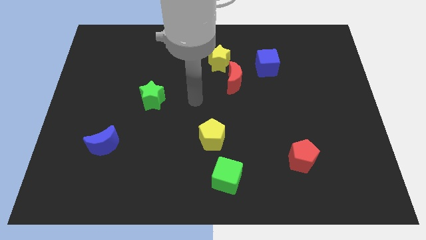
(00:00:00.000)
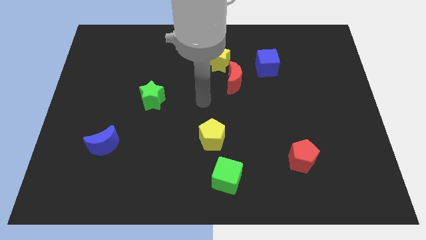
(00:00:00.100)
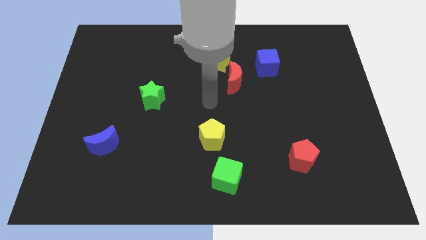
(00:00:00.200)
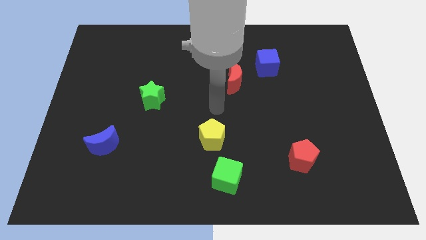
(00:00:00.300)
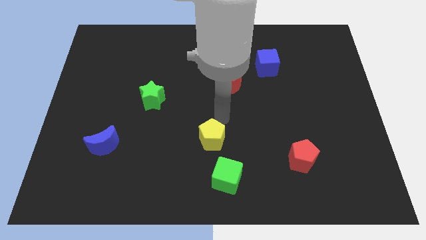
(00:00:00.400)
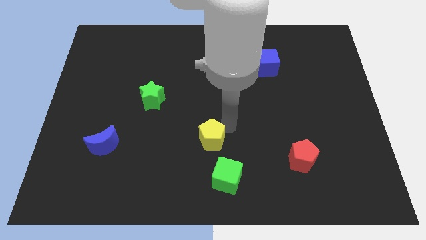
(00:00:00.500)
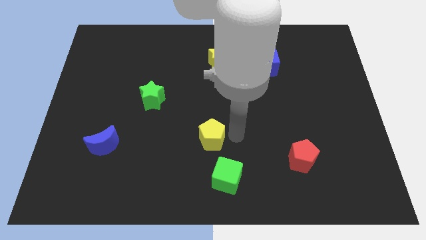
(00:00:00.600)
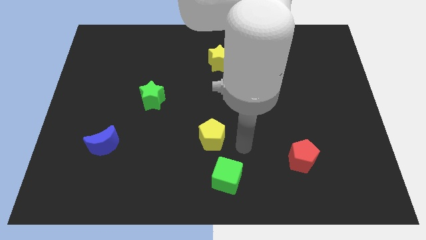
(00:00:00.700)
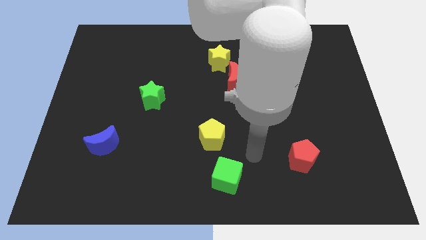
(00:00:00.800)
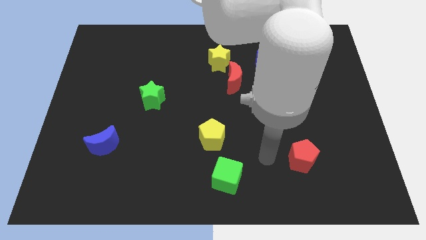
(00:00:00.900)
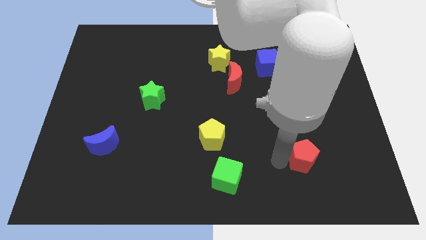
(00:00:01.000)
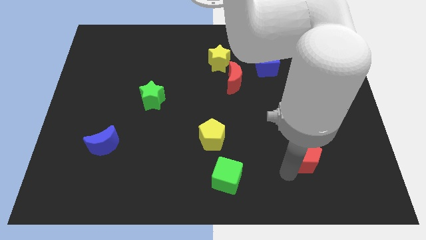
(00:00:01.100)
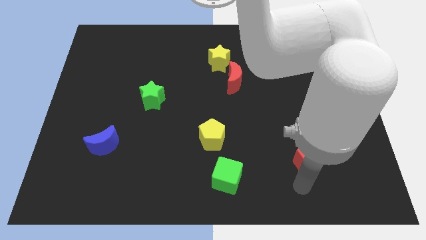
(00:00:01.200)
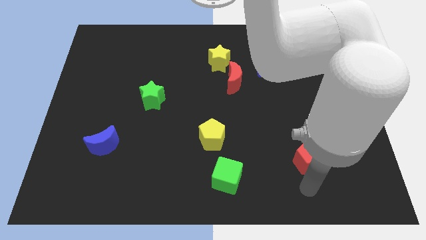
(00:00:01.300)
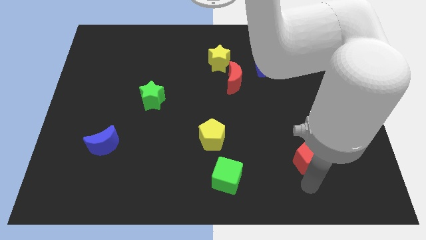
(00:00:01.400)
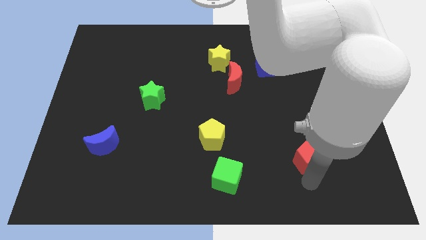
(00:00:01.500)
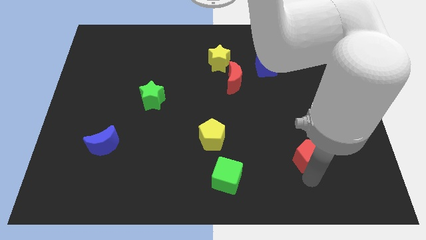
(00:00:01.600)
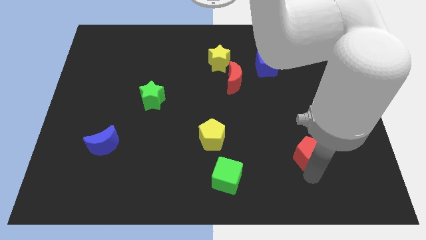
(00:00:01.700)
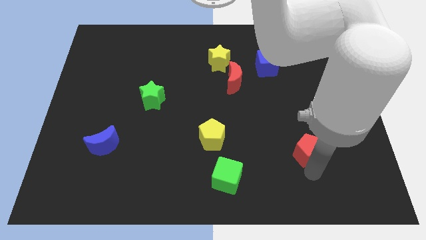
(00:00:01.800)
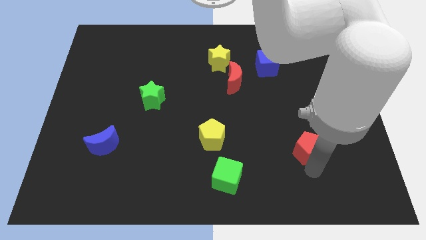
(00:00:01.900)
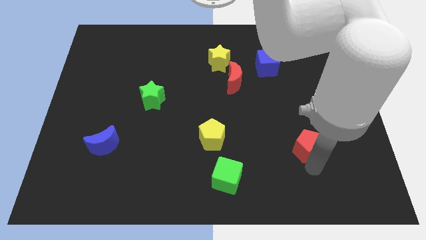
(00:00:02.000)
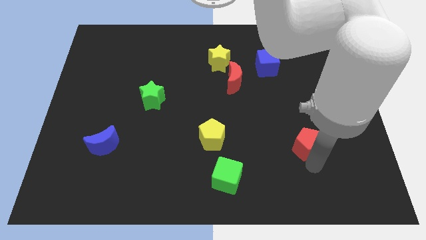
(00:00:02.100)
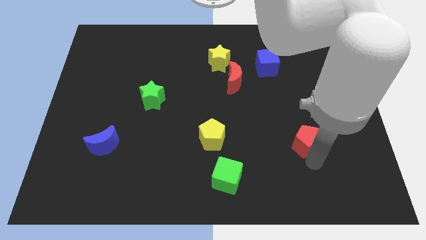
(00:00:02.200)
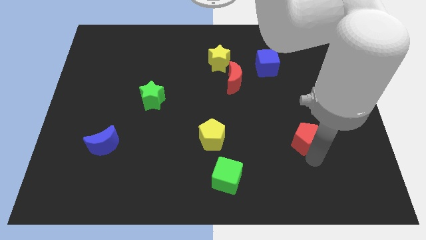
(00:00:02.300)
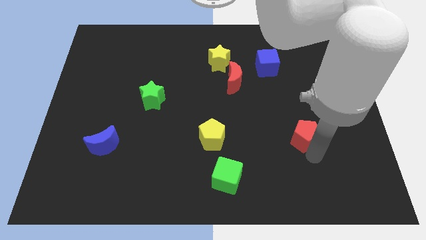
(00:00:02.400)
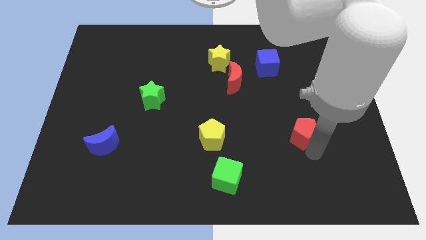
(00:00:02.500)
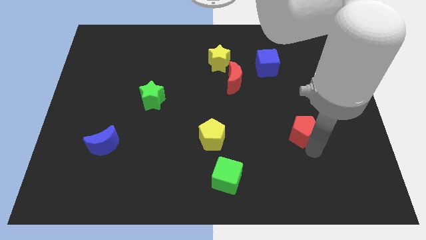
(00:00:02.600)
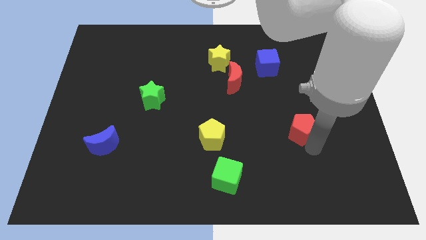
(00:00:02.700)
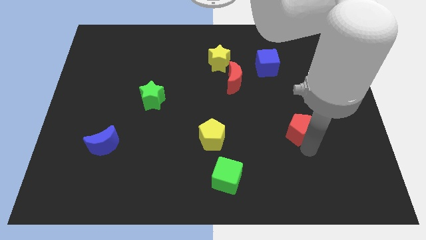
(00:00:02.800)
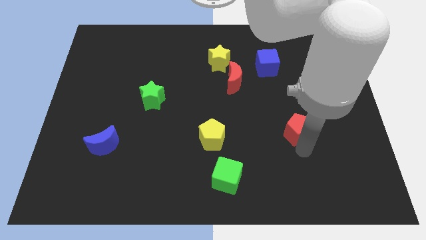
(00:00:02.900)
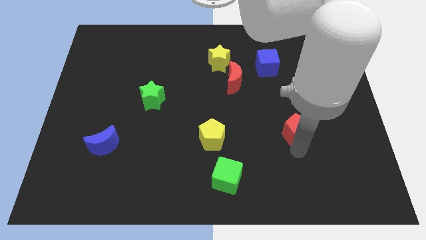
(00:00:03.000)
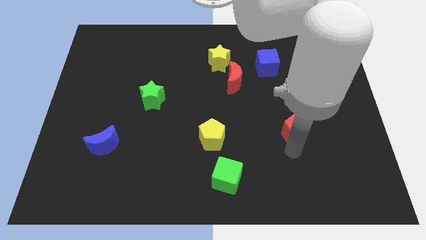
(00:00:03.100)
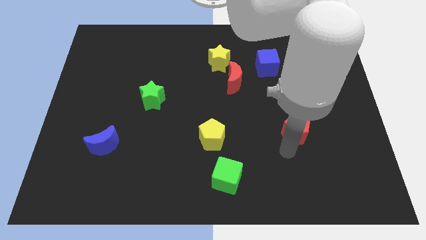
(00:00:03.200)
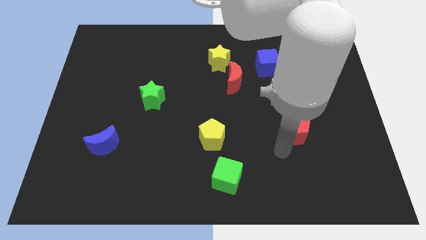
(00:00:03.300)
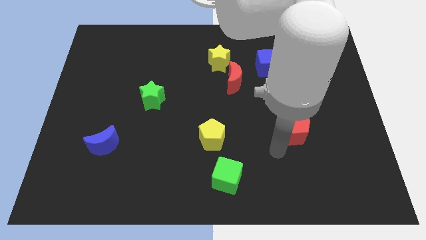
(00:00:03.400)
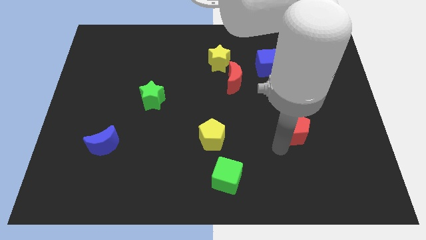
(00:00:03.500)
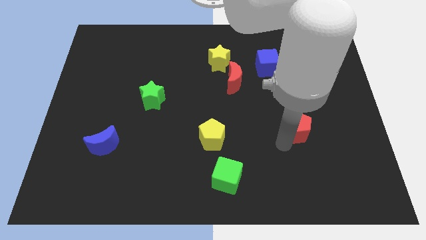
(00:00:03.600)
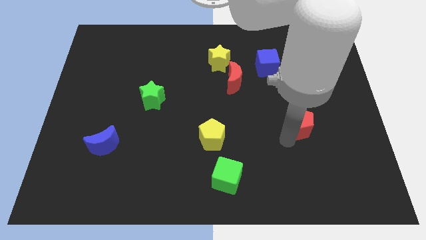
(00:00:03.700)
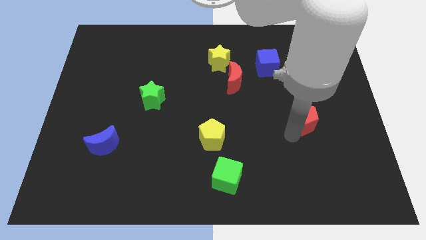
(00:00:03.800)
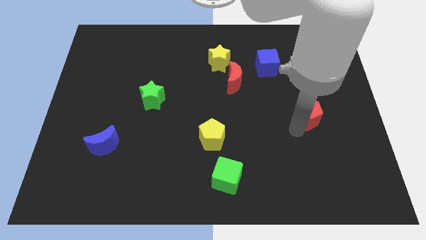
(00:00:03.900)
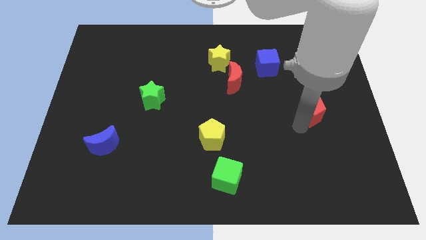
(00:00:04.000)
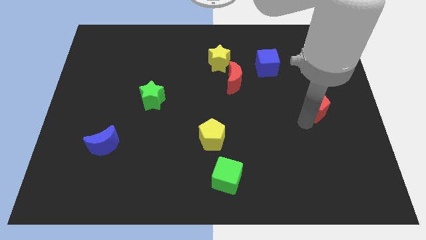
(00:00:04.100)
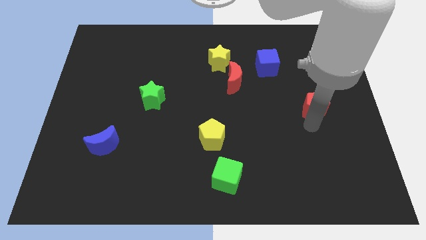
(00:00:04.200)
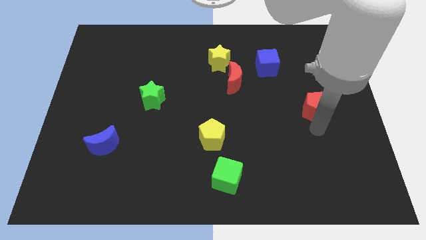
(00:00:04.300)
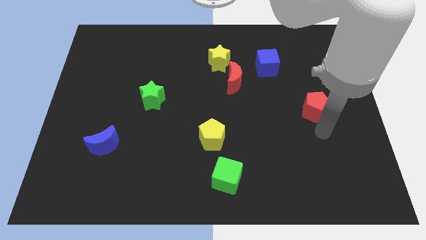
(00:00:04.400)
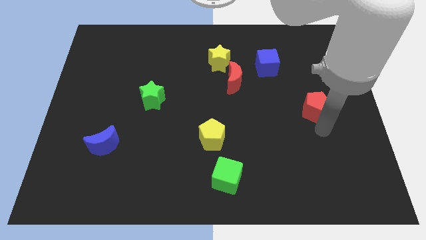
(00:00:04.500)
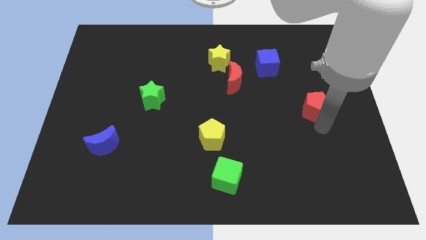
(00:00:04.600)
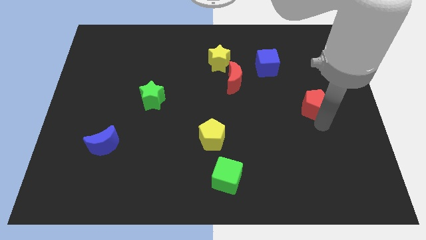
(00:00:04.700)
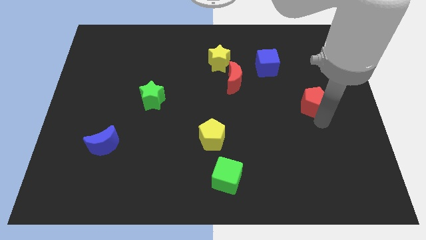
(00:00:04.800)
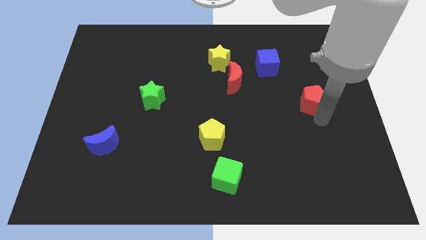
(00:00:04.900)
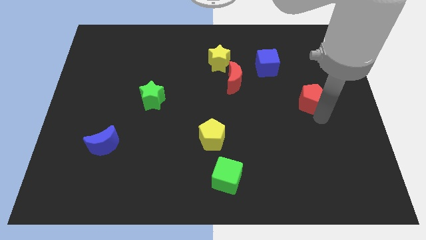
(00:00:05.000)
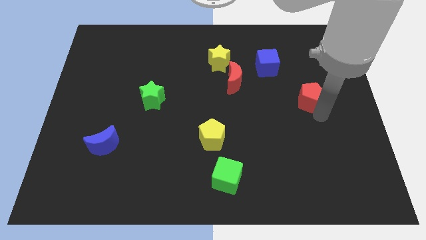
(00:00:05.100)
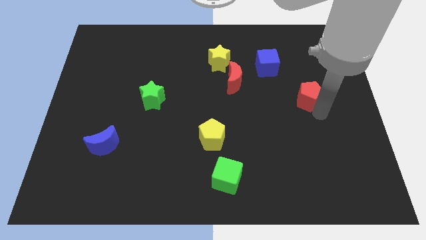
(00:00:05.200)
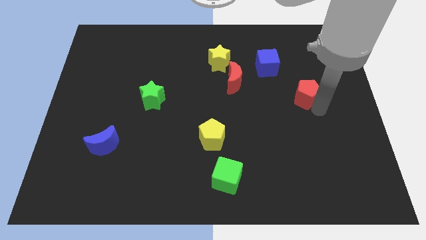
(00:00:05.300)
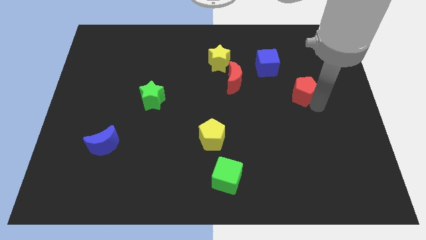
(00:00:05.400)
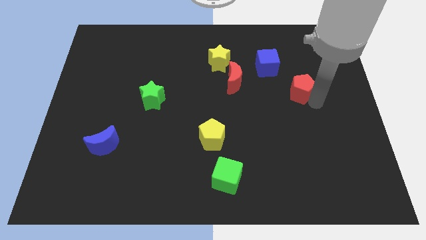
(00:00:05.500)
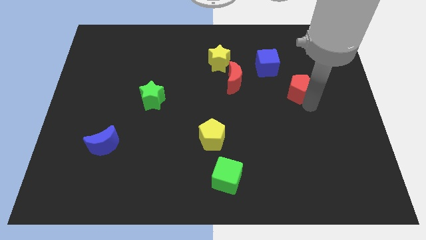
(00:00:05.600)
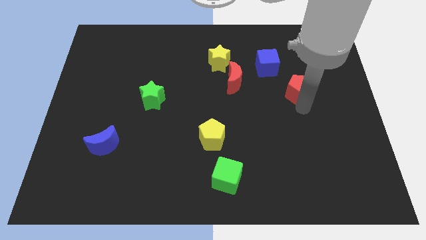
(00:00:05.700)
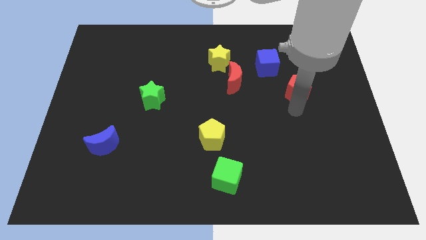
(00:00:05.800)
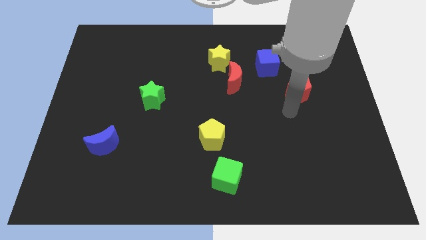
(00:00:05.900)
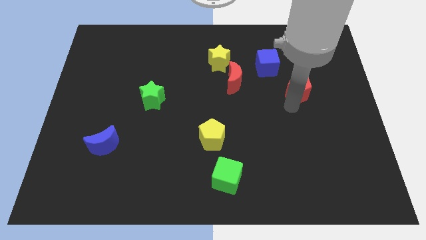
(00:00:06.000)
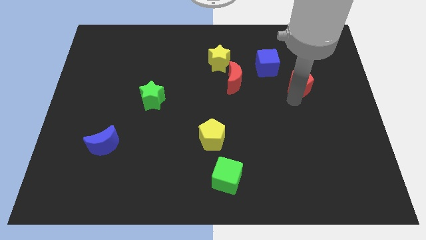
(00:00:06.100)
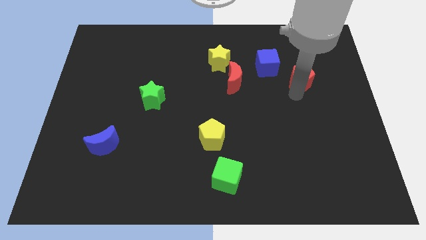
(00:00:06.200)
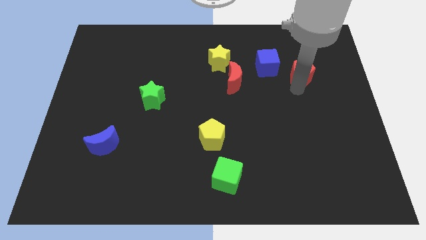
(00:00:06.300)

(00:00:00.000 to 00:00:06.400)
put the red pentagon just right of the blue cube

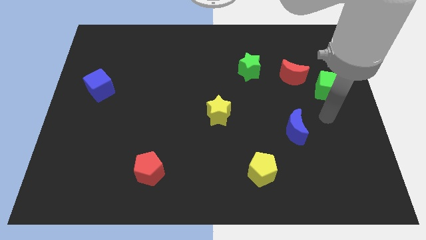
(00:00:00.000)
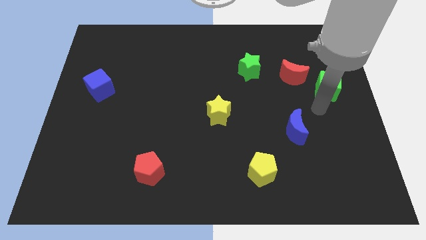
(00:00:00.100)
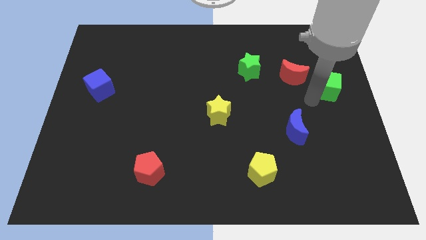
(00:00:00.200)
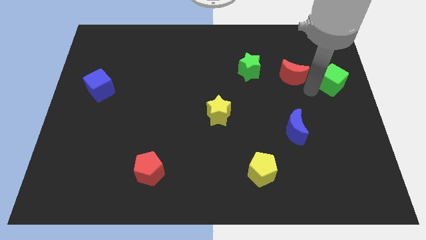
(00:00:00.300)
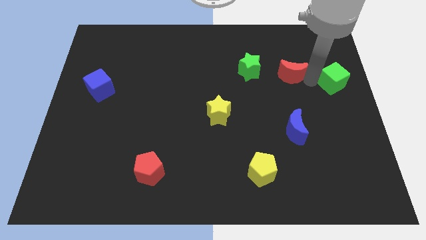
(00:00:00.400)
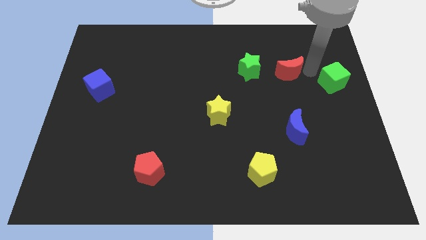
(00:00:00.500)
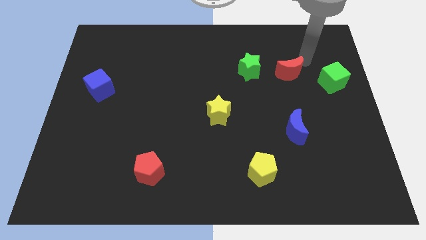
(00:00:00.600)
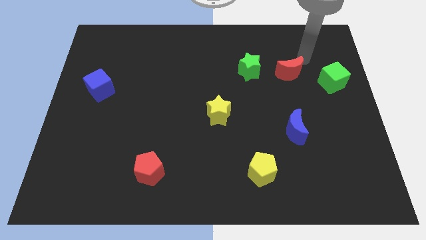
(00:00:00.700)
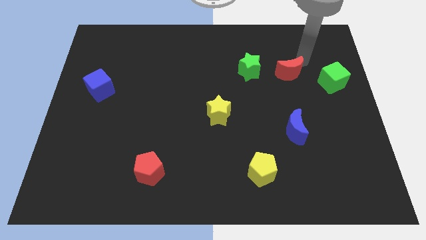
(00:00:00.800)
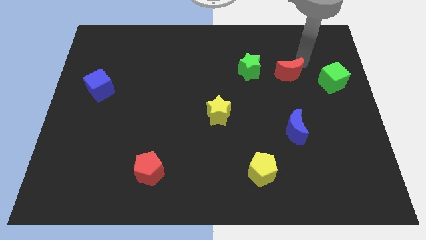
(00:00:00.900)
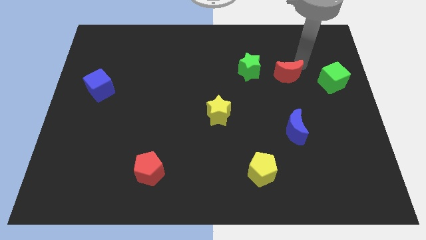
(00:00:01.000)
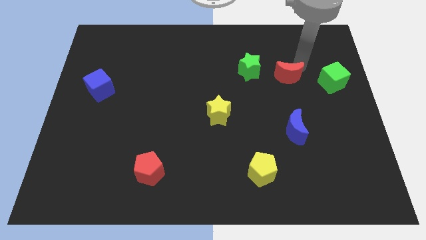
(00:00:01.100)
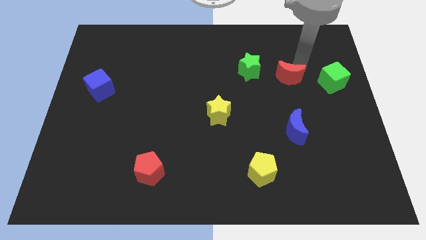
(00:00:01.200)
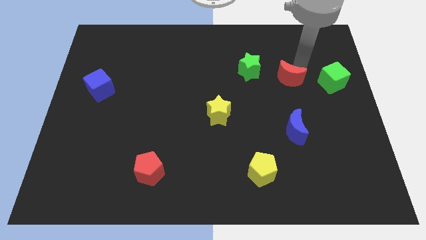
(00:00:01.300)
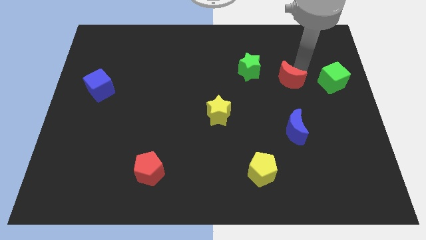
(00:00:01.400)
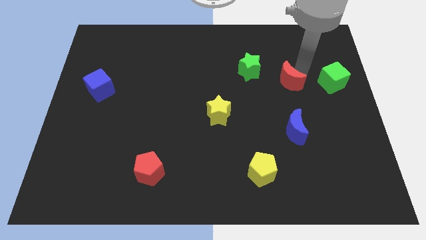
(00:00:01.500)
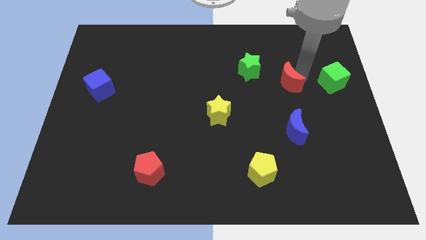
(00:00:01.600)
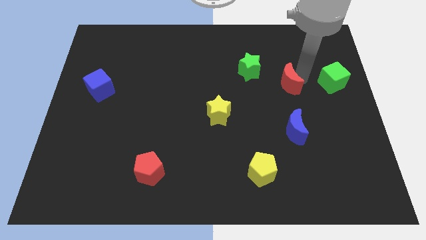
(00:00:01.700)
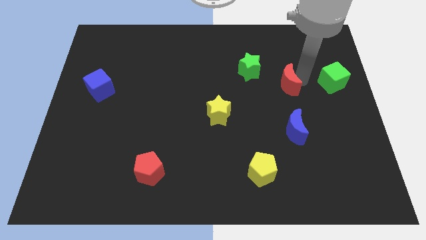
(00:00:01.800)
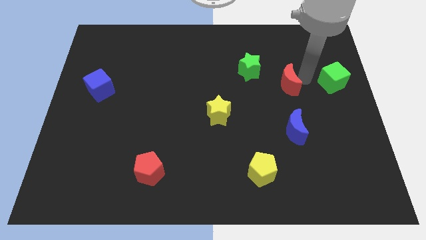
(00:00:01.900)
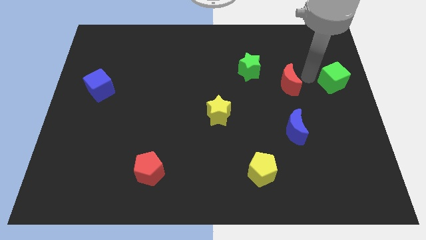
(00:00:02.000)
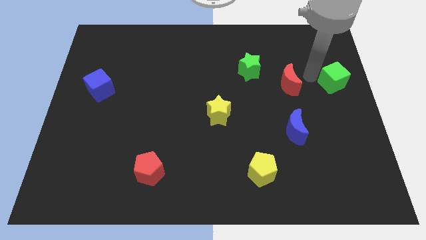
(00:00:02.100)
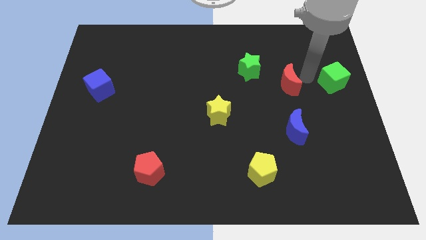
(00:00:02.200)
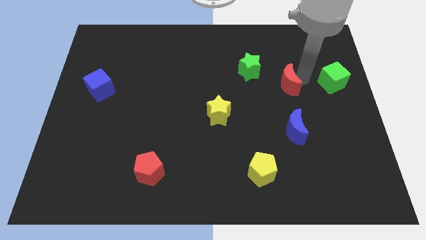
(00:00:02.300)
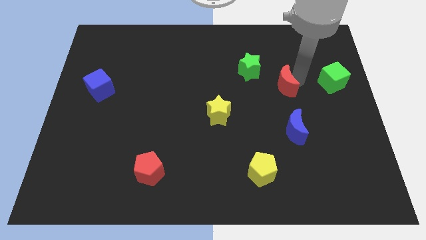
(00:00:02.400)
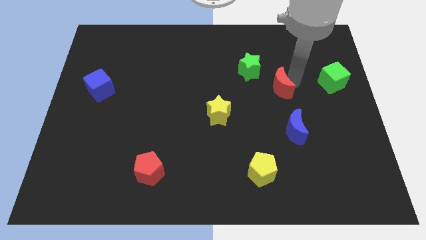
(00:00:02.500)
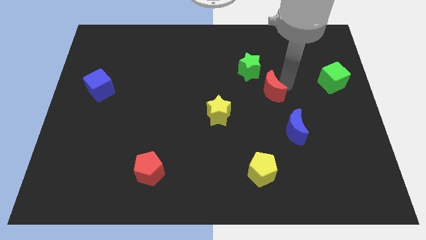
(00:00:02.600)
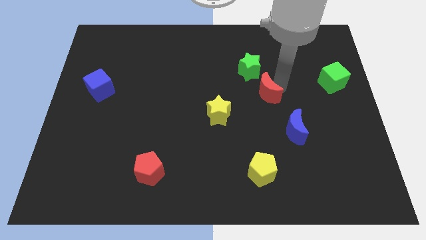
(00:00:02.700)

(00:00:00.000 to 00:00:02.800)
move the red moon below the green star
